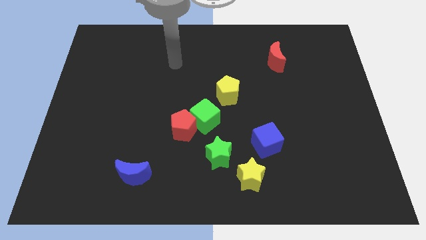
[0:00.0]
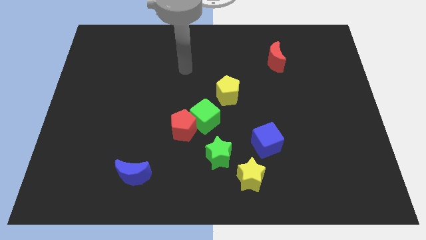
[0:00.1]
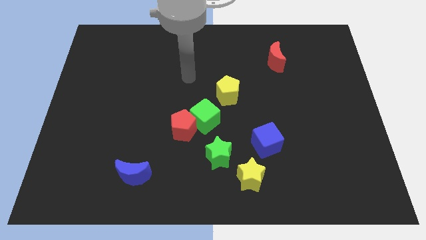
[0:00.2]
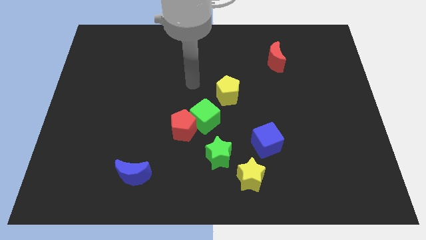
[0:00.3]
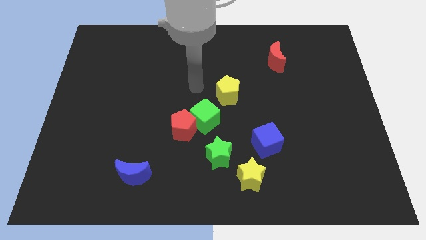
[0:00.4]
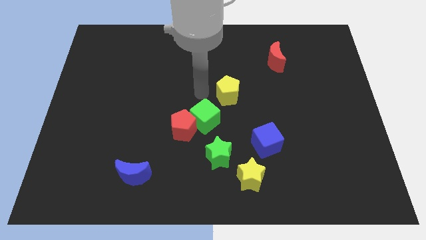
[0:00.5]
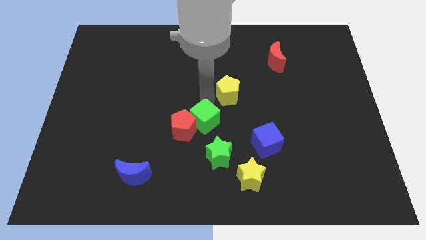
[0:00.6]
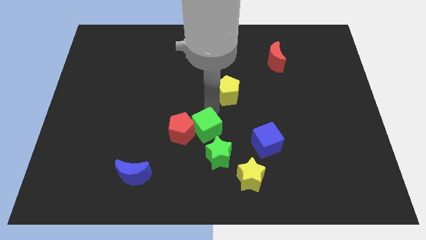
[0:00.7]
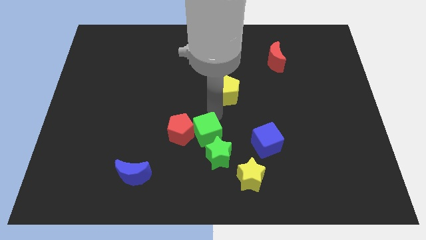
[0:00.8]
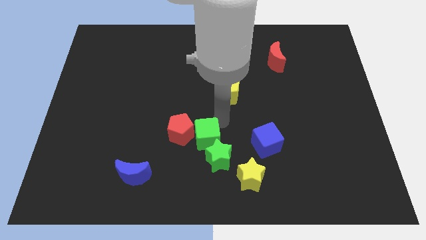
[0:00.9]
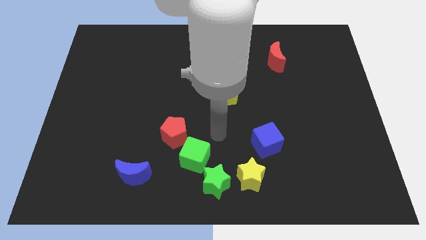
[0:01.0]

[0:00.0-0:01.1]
move the red pentagon away from the green cube and green star

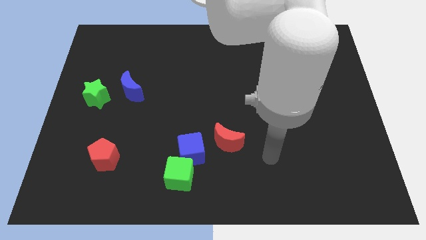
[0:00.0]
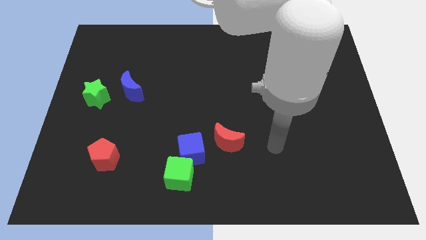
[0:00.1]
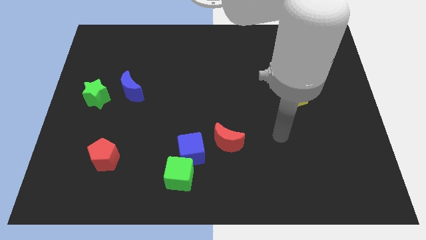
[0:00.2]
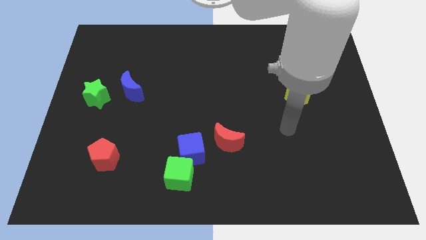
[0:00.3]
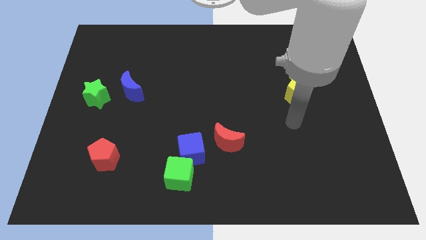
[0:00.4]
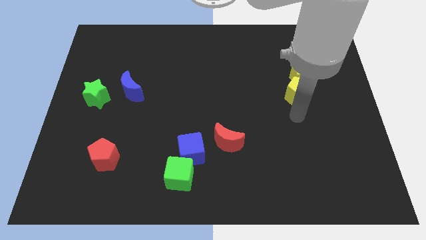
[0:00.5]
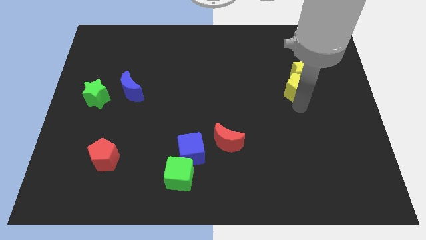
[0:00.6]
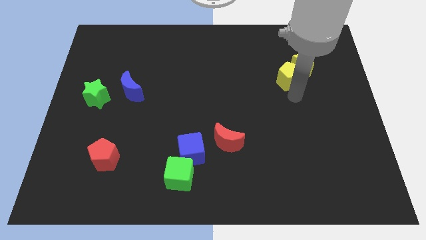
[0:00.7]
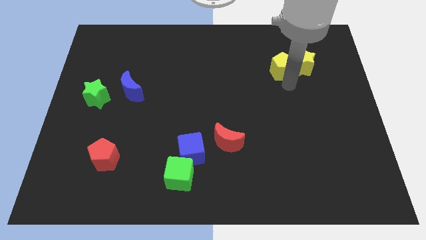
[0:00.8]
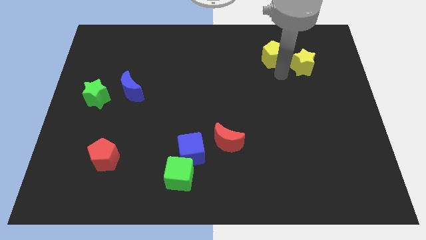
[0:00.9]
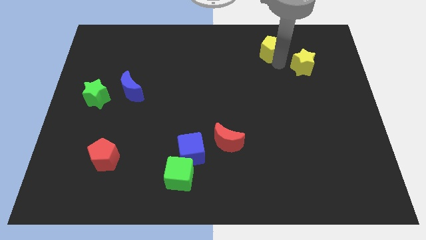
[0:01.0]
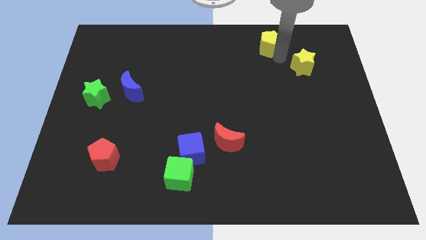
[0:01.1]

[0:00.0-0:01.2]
separate the yellow star from the yellow pentagon

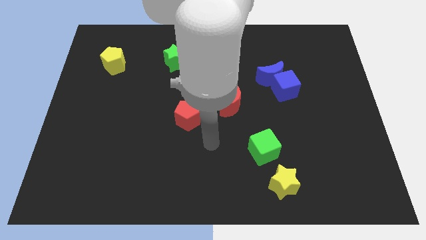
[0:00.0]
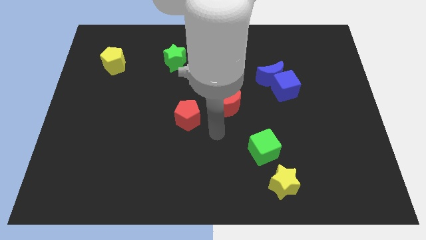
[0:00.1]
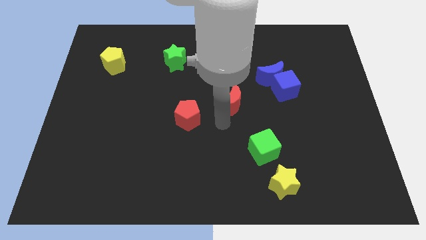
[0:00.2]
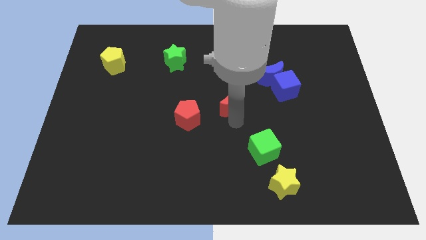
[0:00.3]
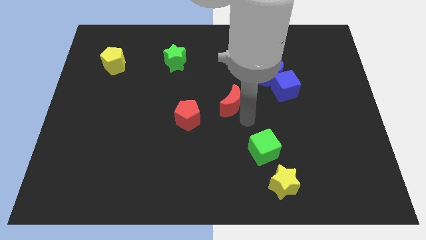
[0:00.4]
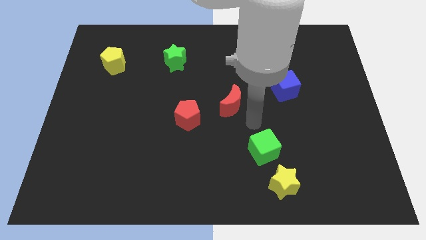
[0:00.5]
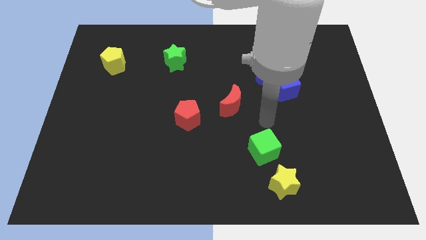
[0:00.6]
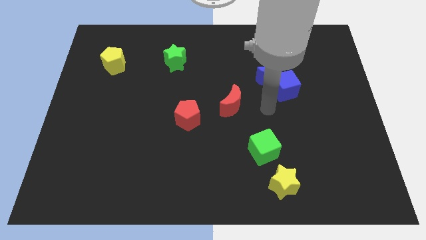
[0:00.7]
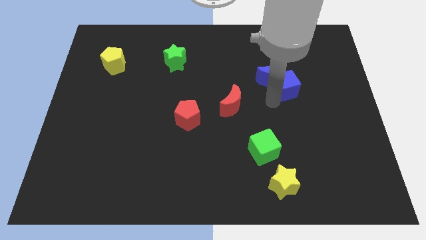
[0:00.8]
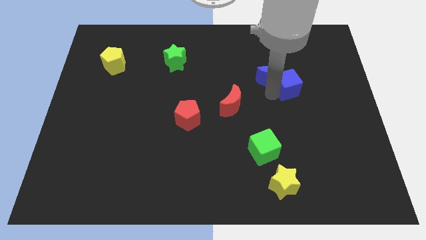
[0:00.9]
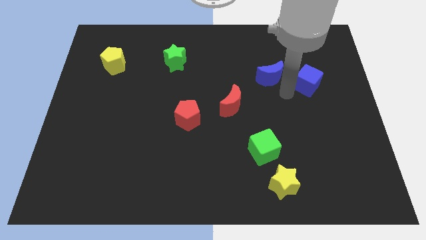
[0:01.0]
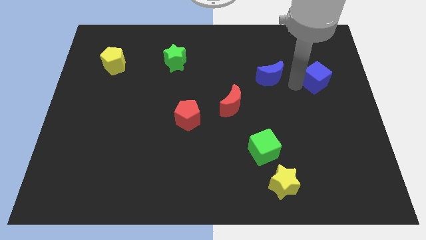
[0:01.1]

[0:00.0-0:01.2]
move the blue moon away from the blue cube

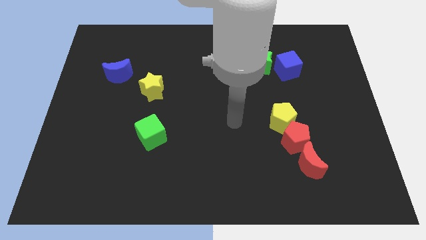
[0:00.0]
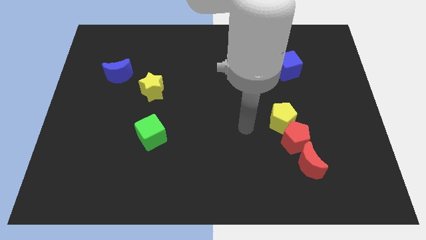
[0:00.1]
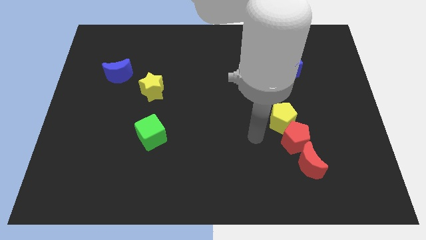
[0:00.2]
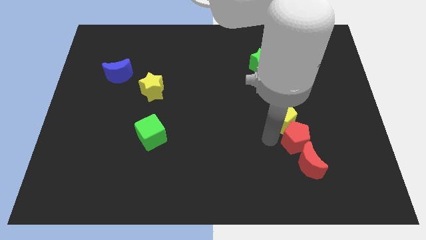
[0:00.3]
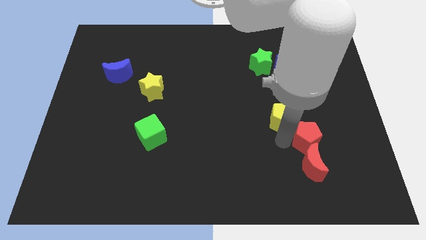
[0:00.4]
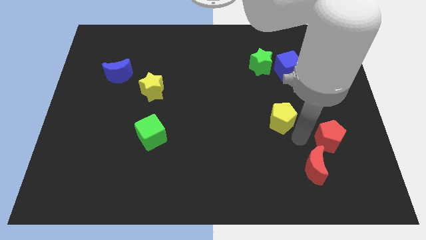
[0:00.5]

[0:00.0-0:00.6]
pull the yellow pentagon apart from the red pentagon

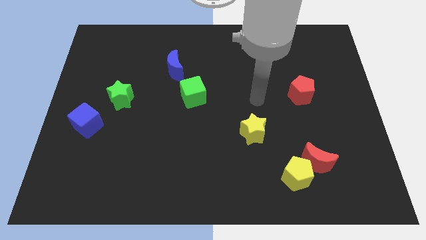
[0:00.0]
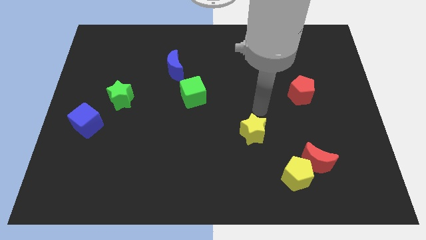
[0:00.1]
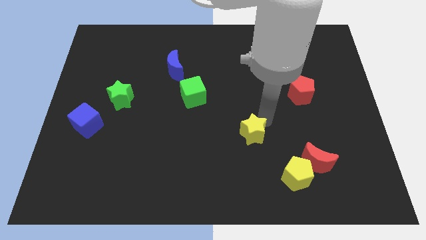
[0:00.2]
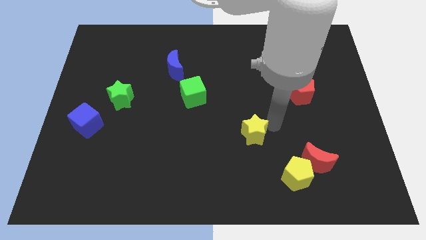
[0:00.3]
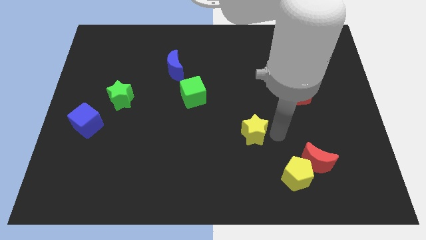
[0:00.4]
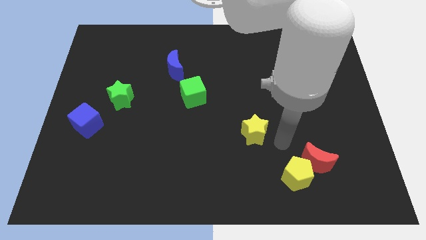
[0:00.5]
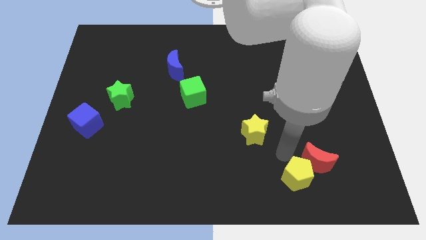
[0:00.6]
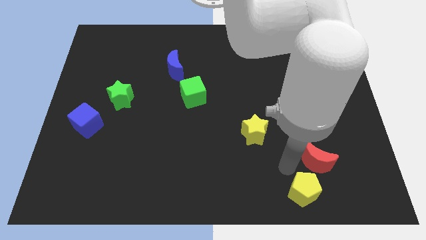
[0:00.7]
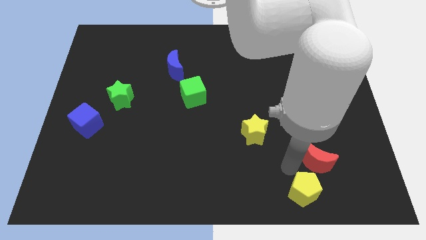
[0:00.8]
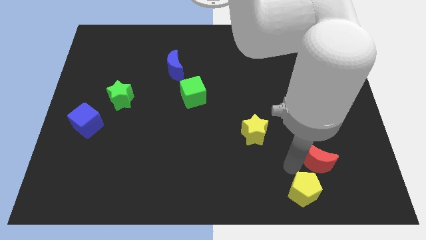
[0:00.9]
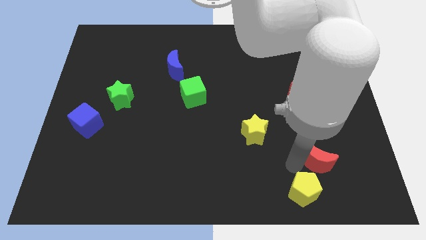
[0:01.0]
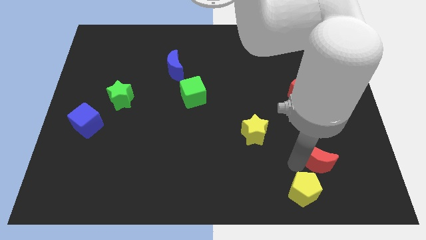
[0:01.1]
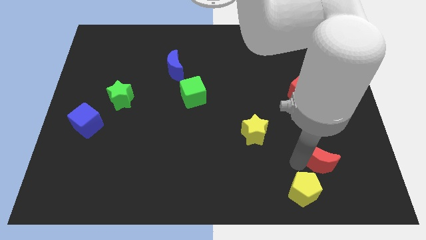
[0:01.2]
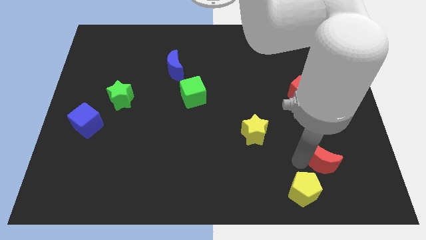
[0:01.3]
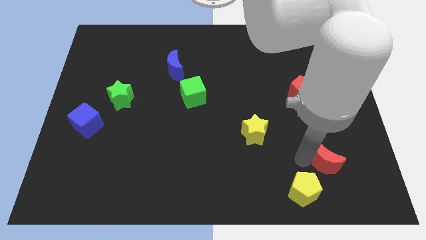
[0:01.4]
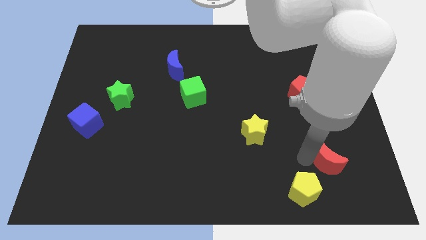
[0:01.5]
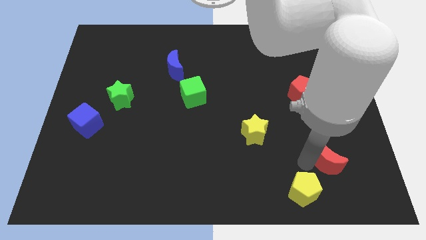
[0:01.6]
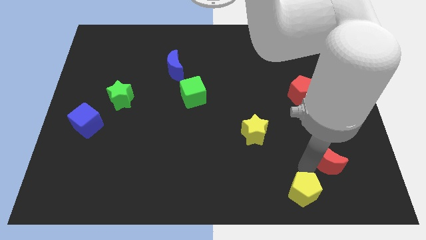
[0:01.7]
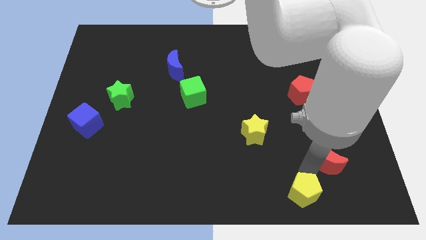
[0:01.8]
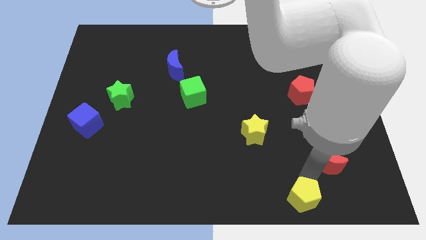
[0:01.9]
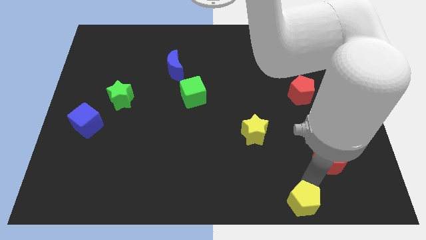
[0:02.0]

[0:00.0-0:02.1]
separate the red moon from the yellow pentagon

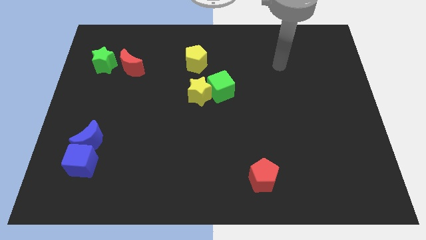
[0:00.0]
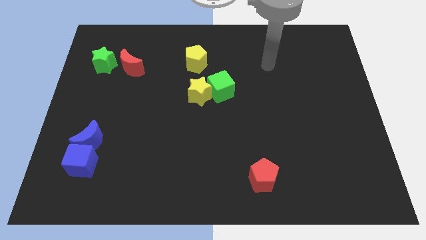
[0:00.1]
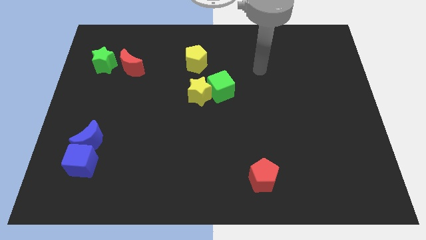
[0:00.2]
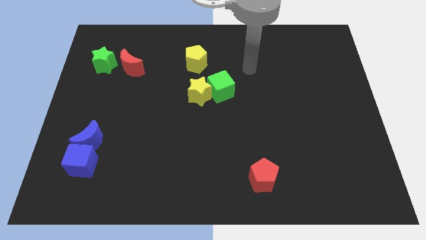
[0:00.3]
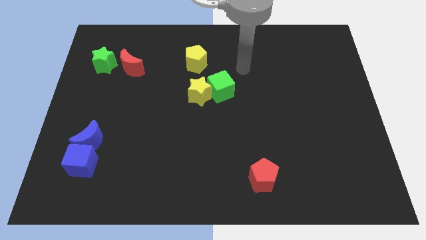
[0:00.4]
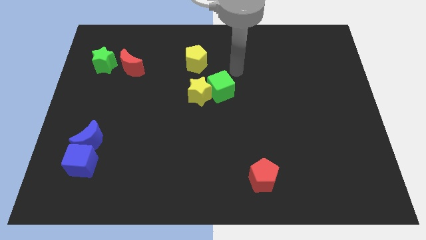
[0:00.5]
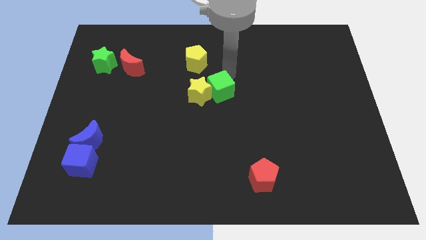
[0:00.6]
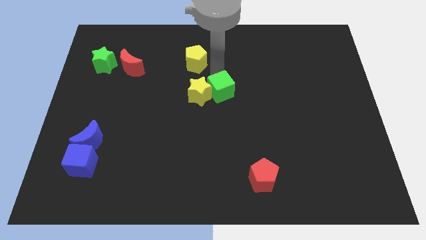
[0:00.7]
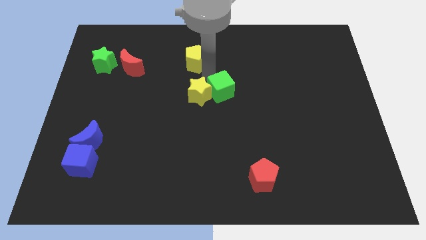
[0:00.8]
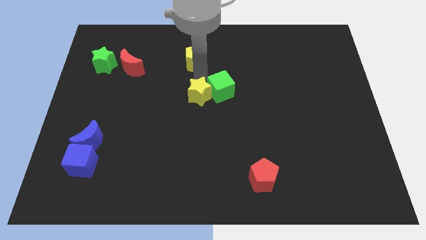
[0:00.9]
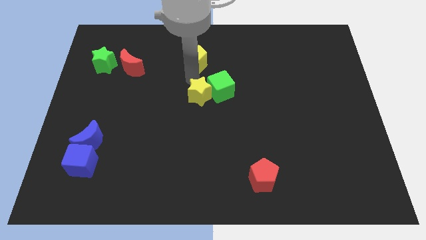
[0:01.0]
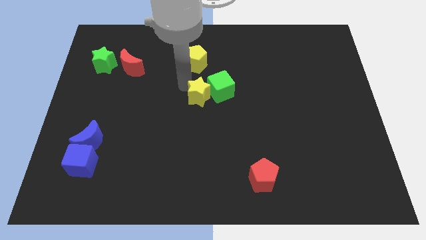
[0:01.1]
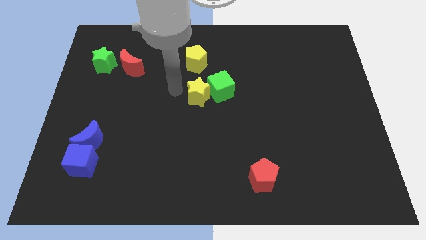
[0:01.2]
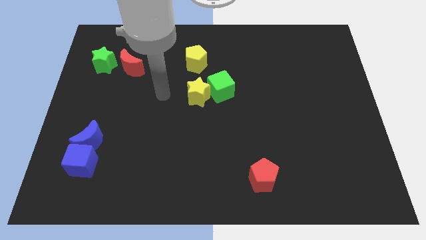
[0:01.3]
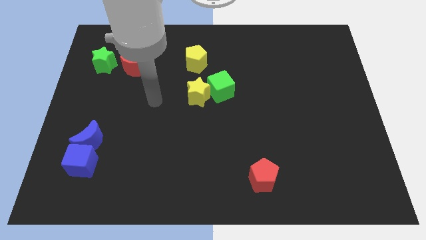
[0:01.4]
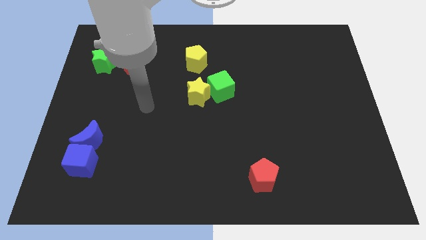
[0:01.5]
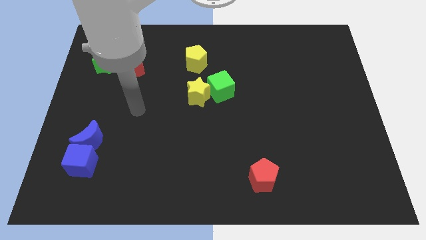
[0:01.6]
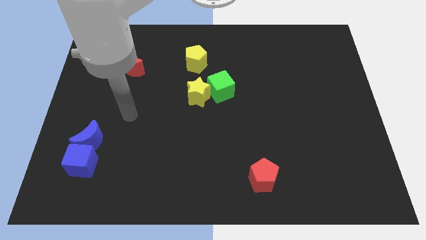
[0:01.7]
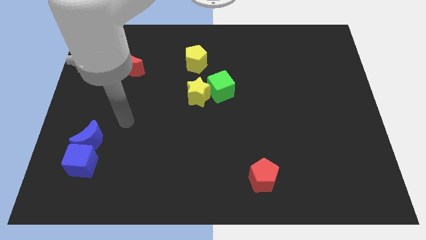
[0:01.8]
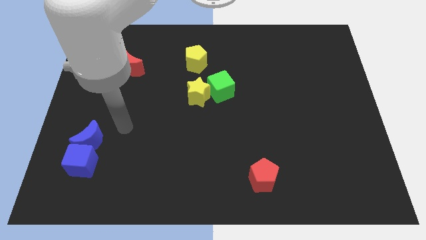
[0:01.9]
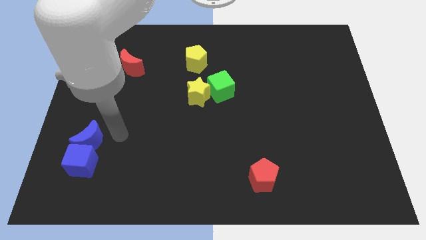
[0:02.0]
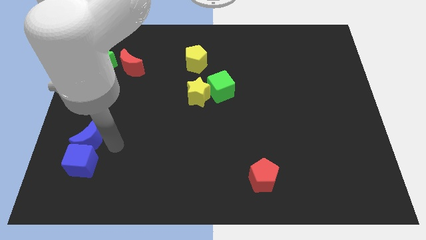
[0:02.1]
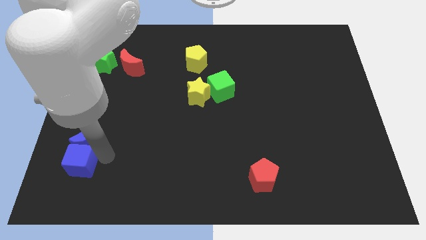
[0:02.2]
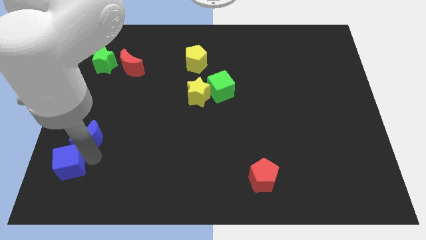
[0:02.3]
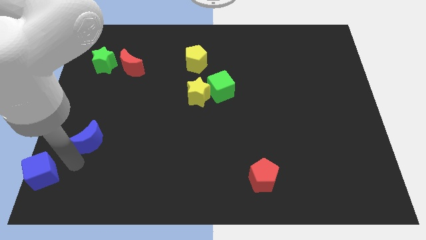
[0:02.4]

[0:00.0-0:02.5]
pull the blue moon apart from the blue cube

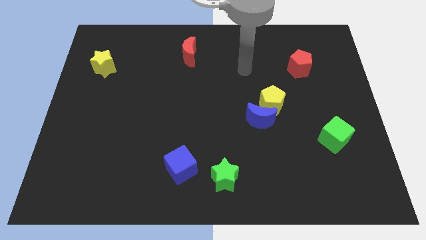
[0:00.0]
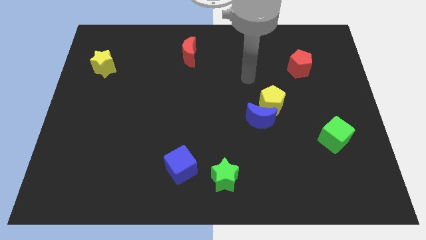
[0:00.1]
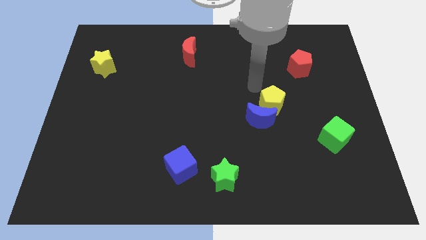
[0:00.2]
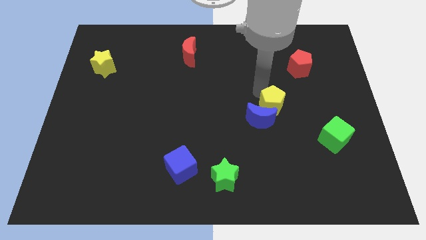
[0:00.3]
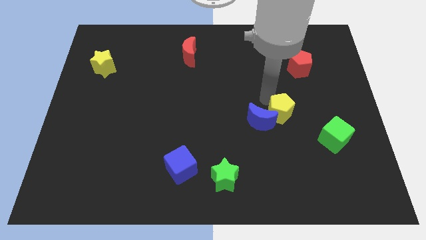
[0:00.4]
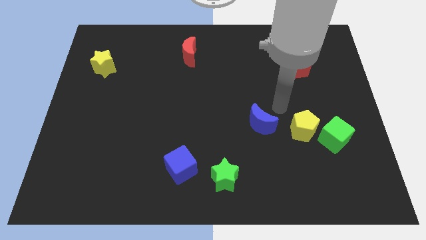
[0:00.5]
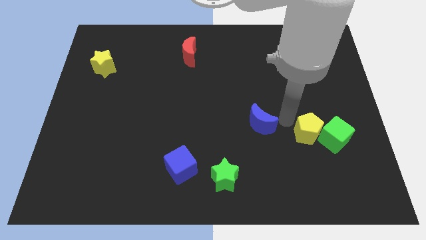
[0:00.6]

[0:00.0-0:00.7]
pull the blue moon apart from the yellow pentagon
